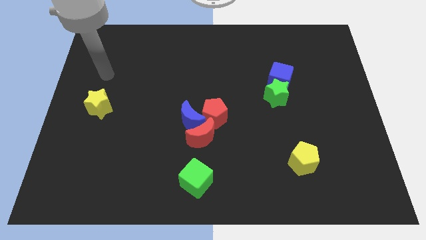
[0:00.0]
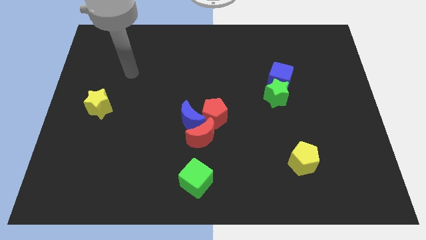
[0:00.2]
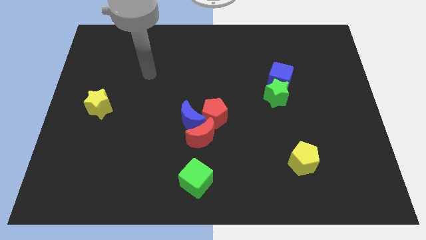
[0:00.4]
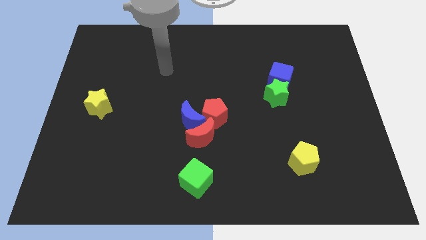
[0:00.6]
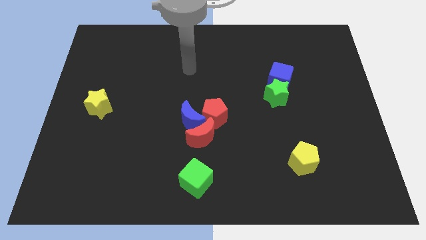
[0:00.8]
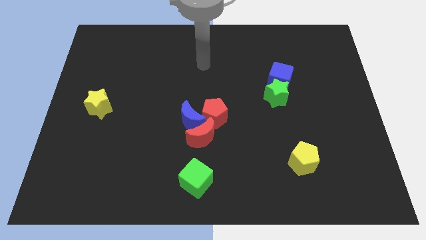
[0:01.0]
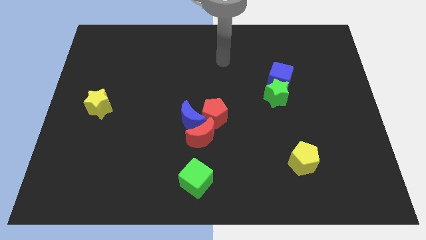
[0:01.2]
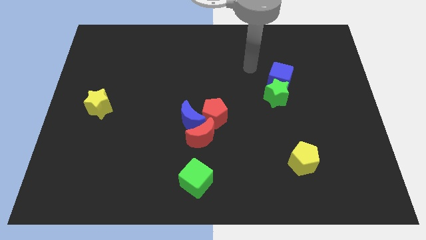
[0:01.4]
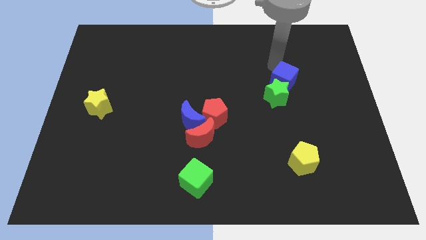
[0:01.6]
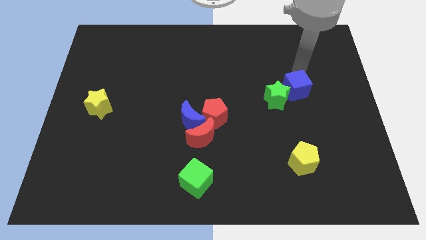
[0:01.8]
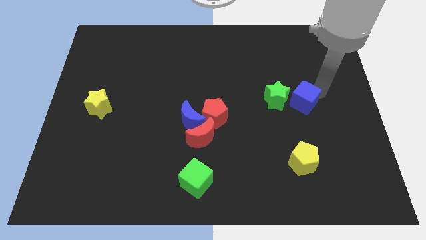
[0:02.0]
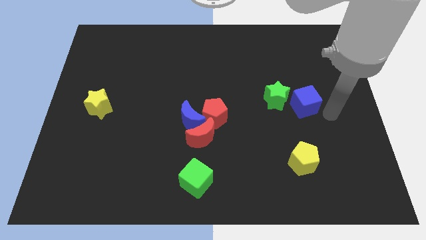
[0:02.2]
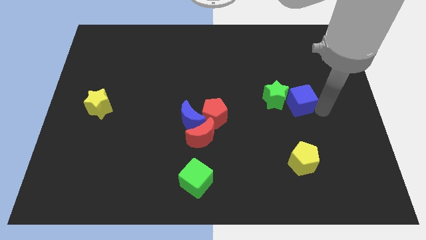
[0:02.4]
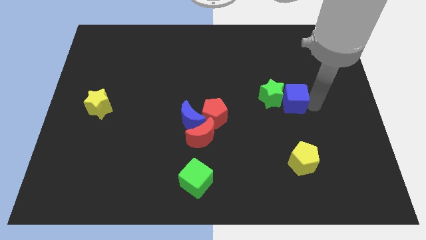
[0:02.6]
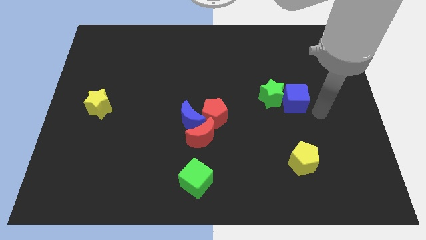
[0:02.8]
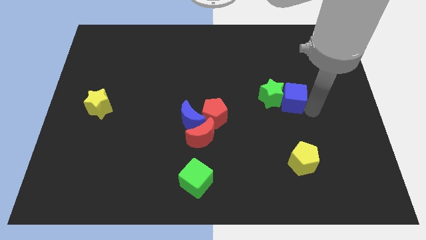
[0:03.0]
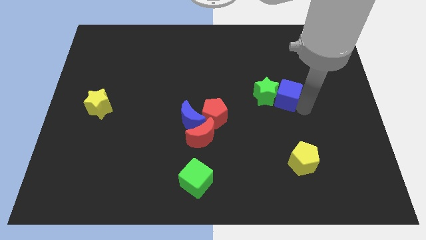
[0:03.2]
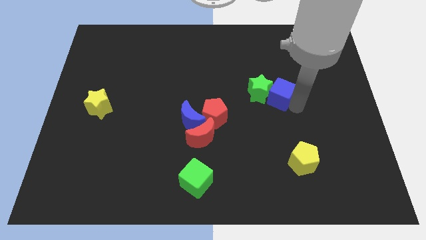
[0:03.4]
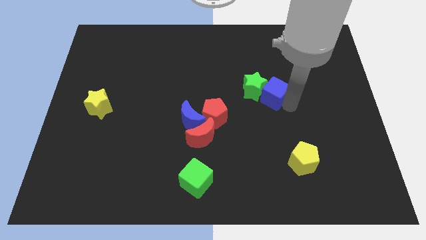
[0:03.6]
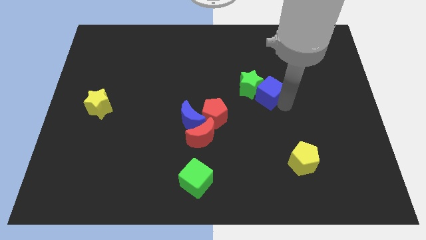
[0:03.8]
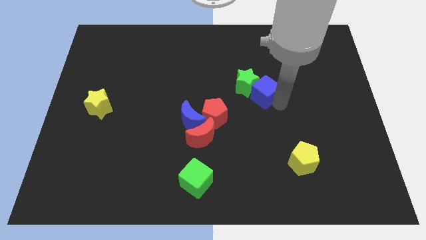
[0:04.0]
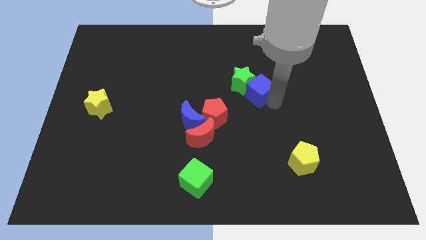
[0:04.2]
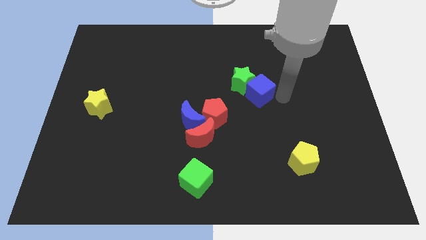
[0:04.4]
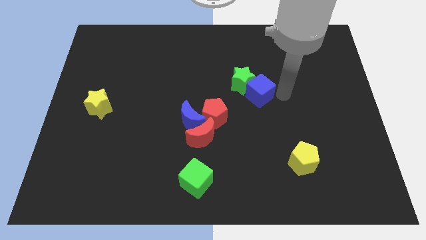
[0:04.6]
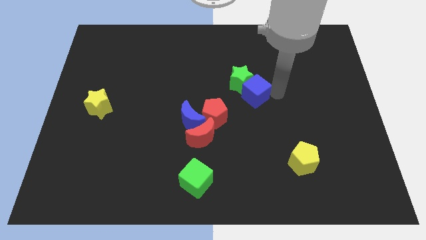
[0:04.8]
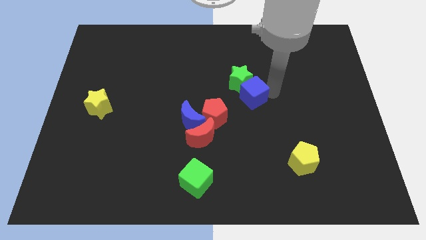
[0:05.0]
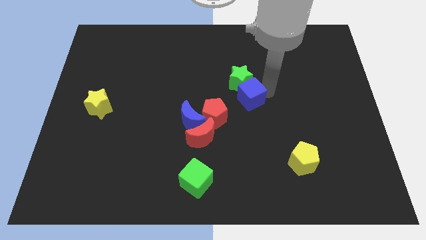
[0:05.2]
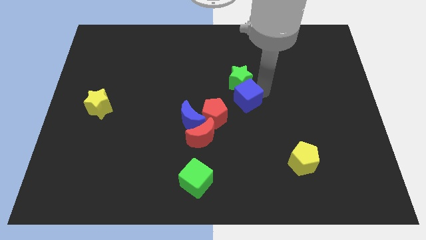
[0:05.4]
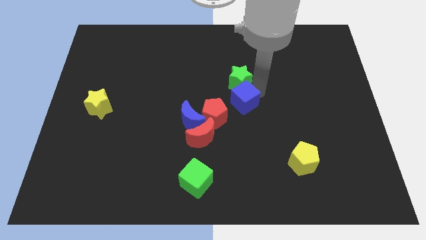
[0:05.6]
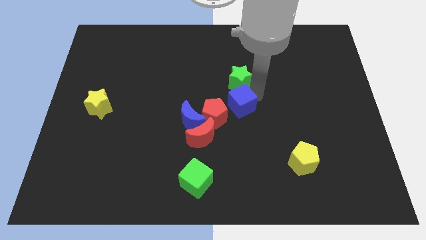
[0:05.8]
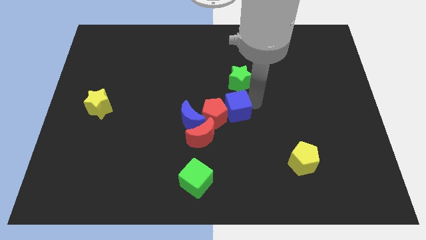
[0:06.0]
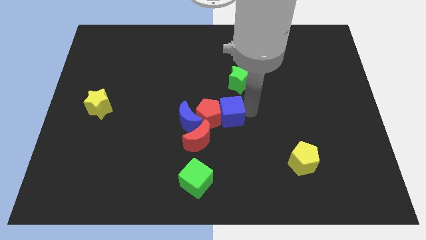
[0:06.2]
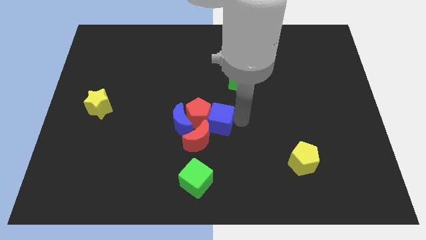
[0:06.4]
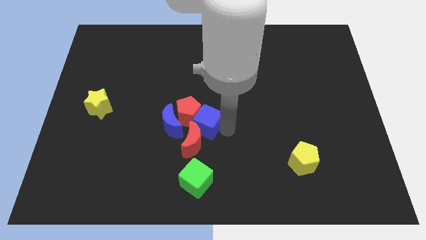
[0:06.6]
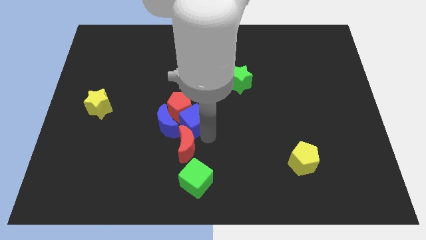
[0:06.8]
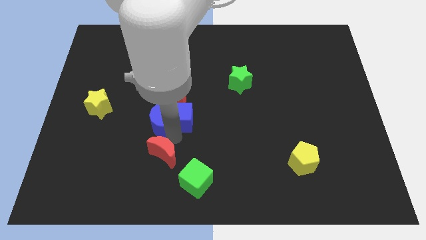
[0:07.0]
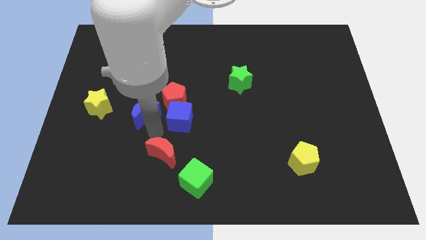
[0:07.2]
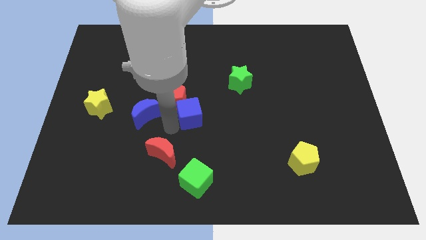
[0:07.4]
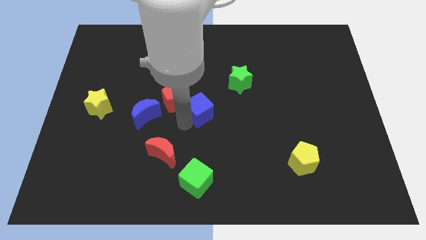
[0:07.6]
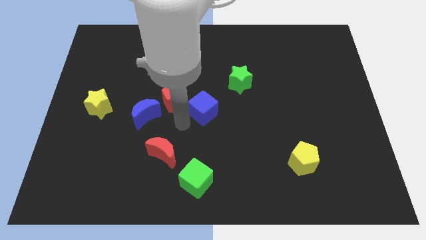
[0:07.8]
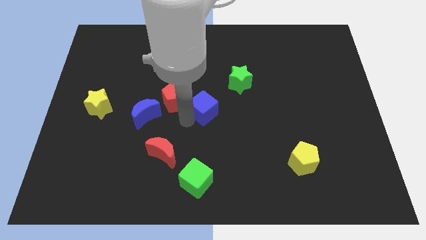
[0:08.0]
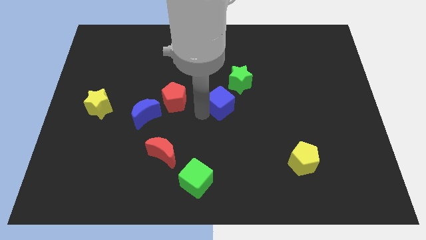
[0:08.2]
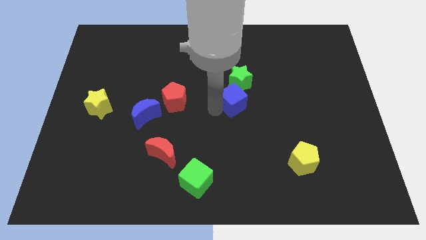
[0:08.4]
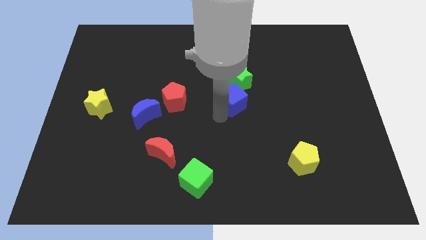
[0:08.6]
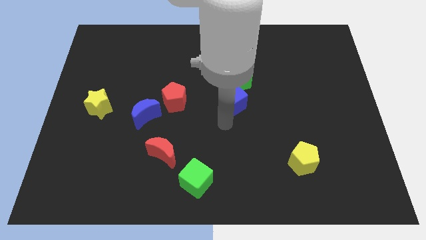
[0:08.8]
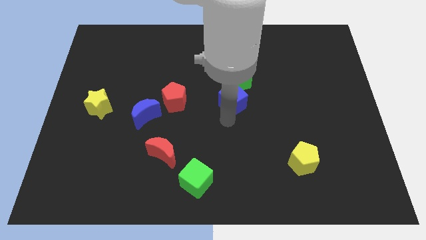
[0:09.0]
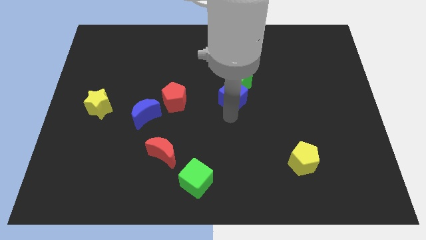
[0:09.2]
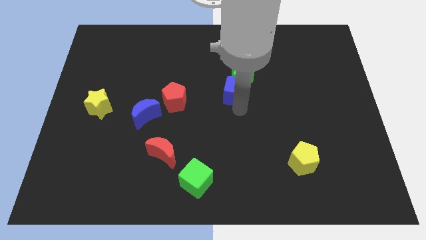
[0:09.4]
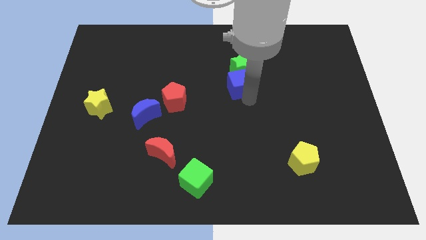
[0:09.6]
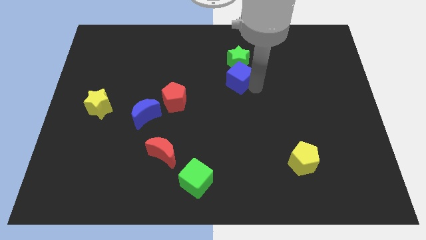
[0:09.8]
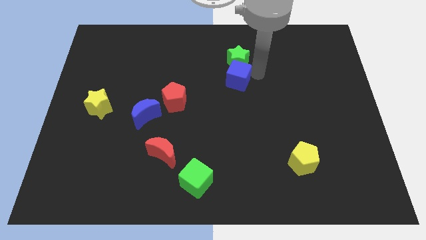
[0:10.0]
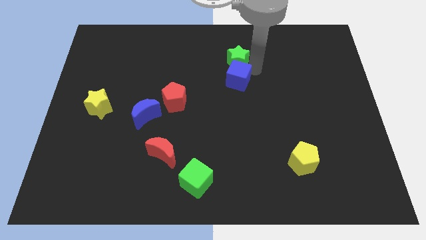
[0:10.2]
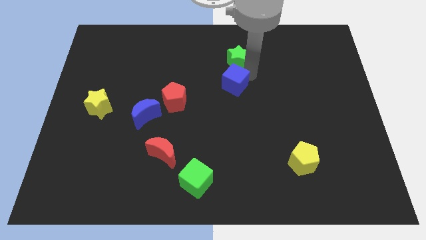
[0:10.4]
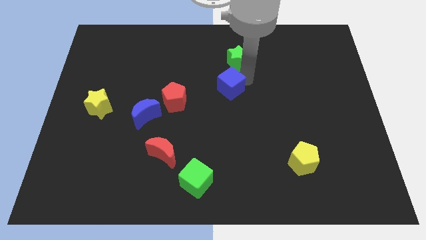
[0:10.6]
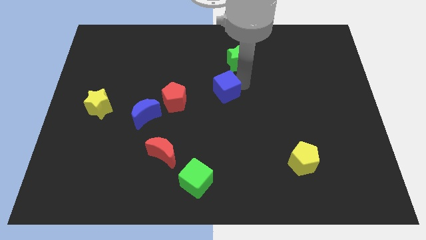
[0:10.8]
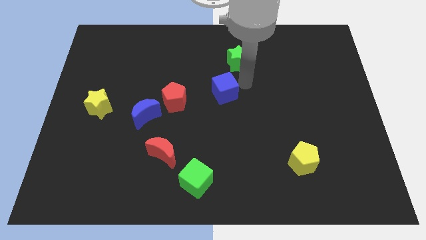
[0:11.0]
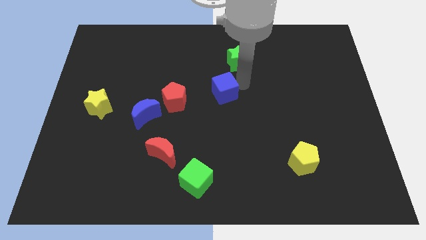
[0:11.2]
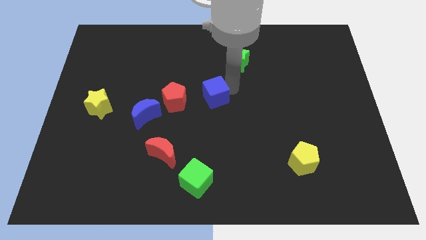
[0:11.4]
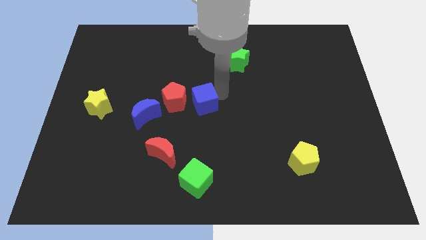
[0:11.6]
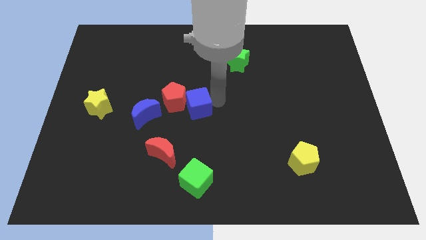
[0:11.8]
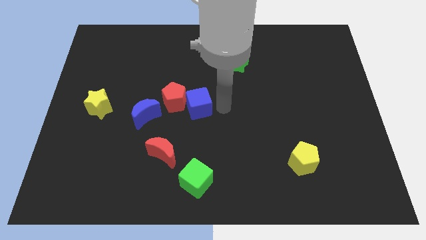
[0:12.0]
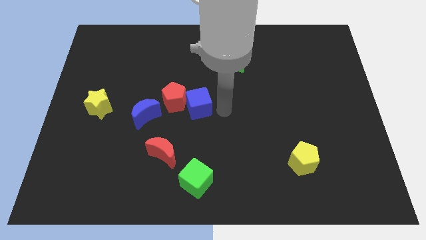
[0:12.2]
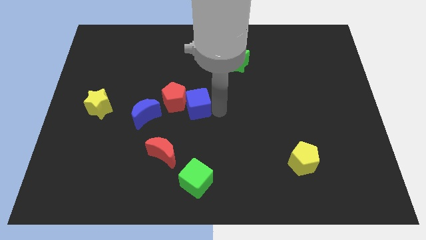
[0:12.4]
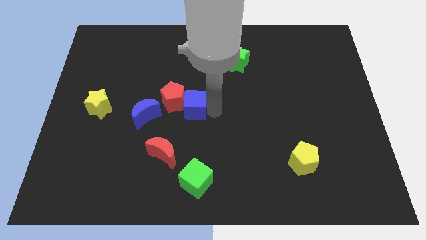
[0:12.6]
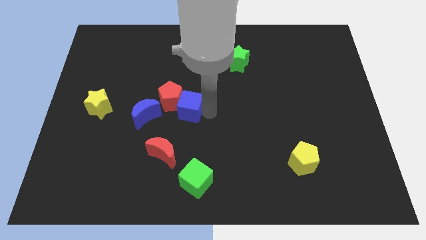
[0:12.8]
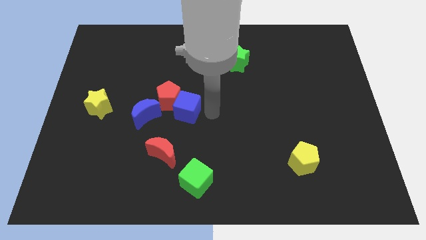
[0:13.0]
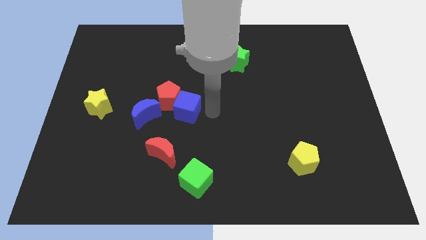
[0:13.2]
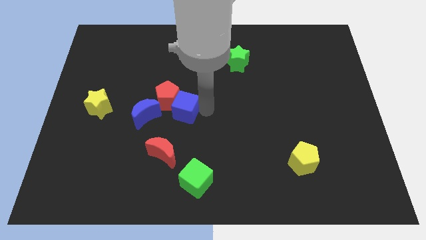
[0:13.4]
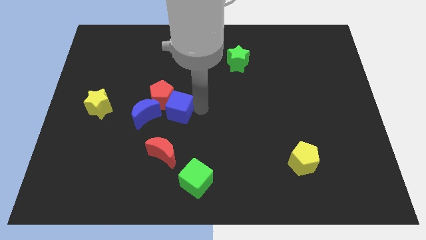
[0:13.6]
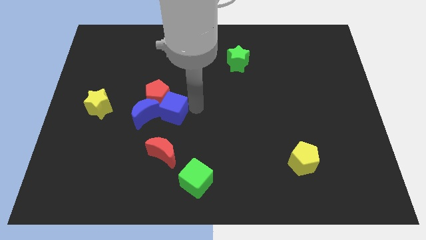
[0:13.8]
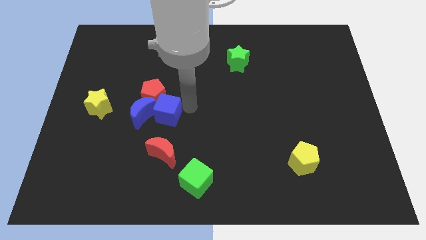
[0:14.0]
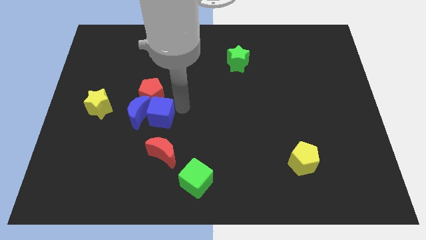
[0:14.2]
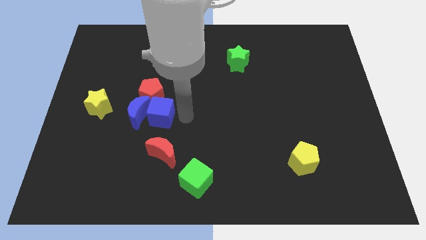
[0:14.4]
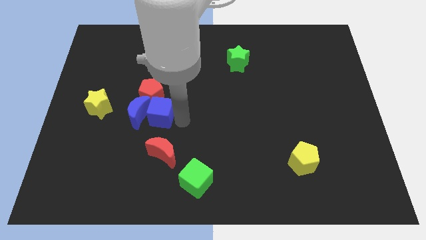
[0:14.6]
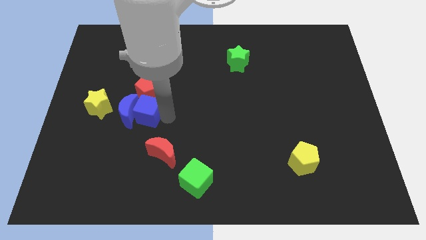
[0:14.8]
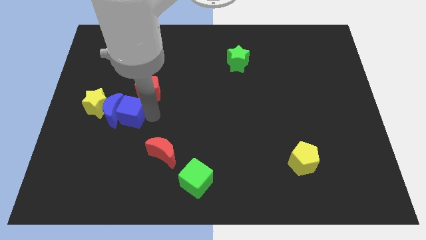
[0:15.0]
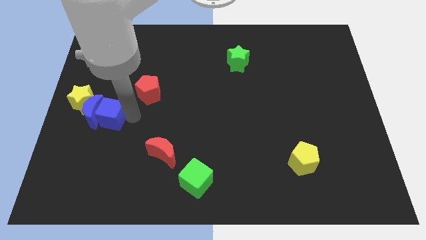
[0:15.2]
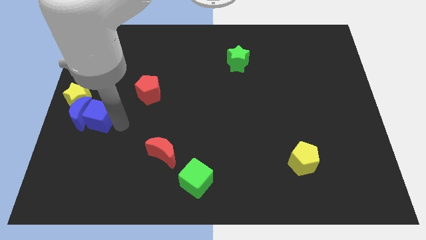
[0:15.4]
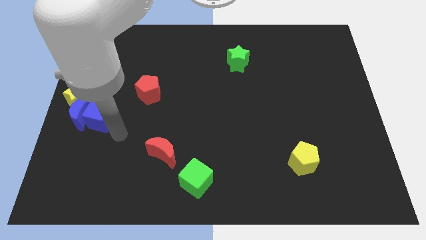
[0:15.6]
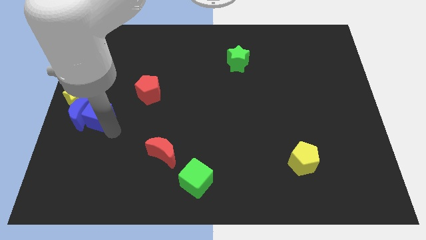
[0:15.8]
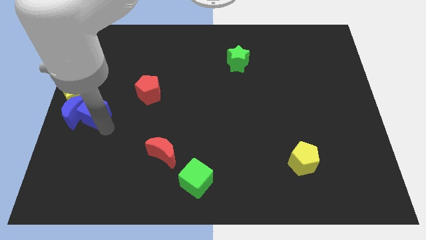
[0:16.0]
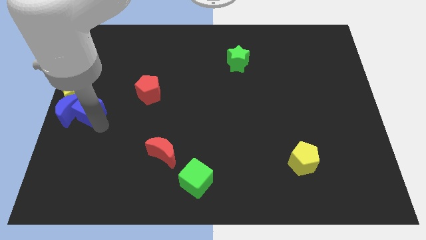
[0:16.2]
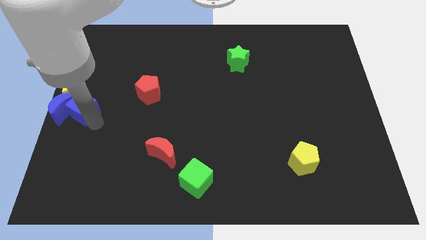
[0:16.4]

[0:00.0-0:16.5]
slide the blue cube next to the yellow star
